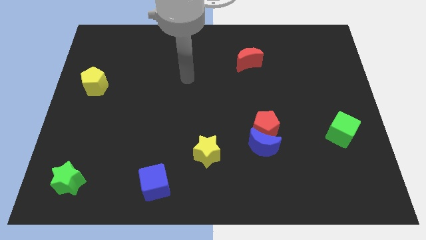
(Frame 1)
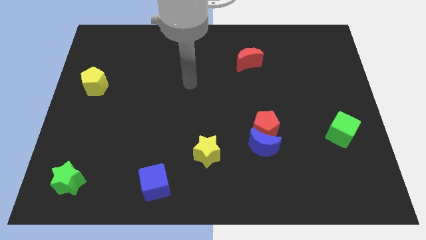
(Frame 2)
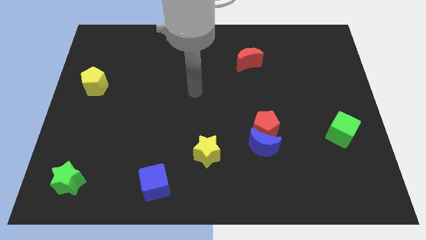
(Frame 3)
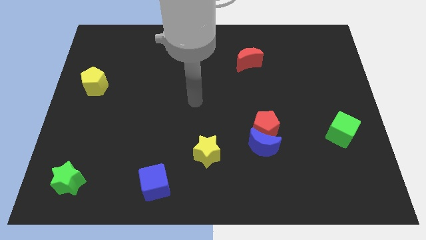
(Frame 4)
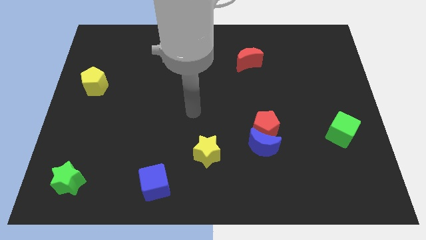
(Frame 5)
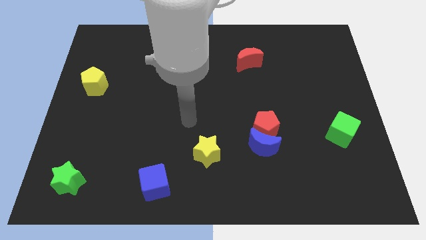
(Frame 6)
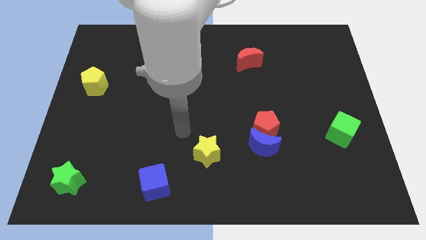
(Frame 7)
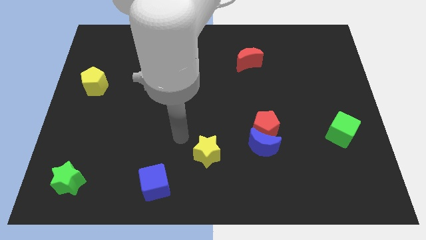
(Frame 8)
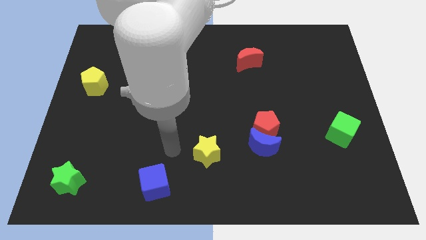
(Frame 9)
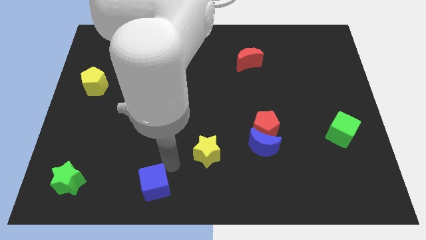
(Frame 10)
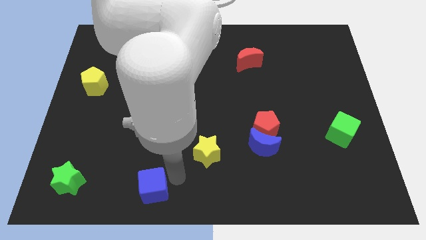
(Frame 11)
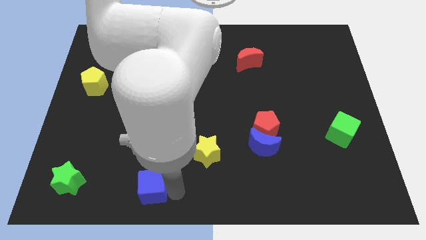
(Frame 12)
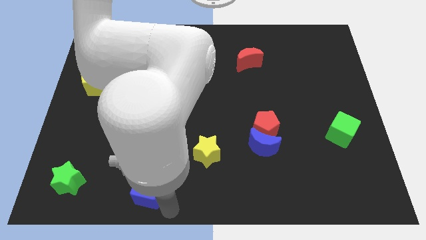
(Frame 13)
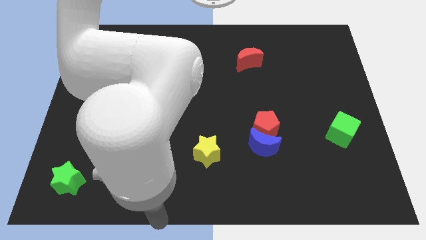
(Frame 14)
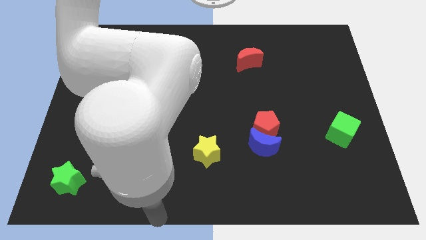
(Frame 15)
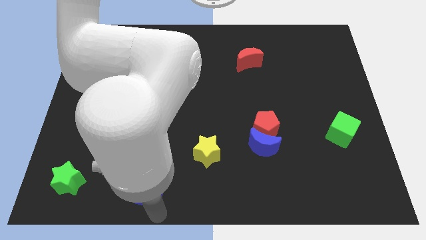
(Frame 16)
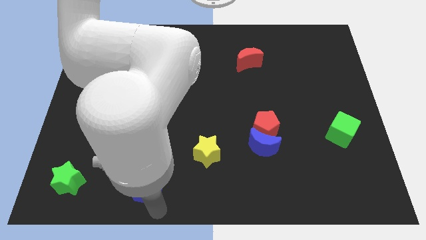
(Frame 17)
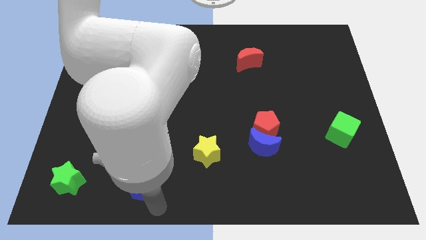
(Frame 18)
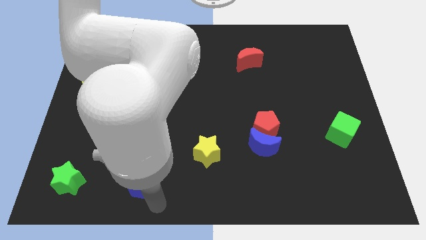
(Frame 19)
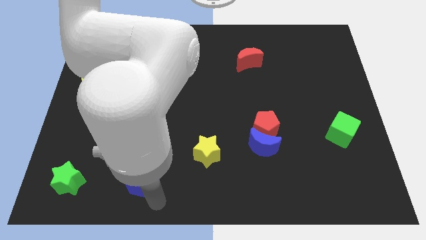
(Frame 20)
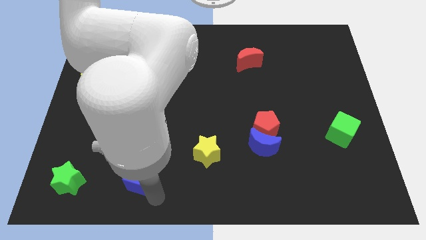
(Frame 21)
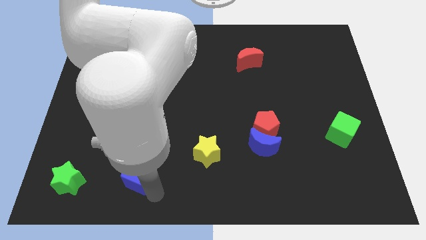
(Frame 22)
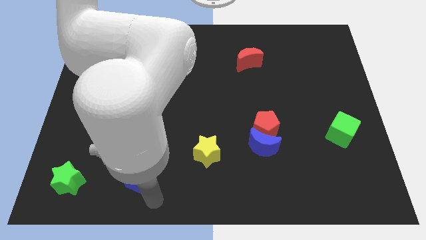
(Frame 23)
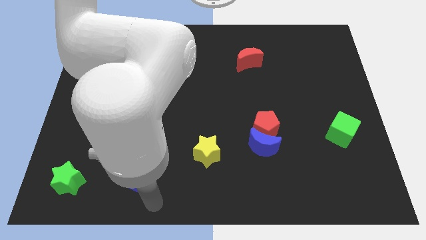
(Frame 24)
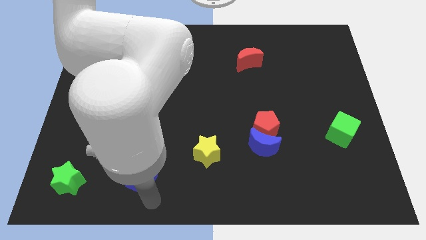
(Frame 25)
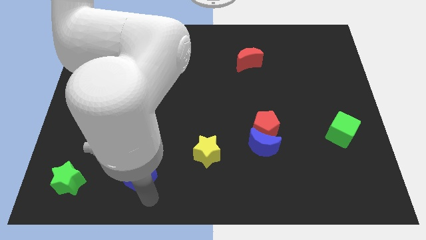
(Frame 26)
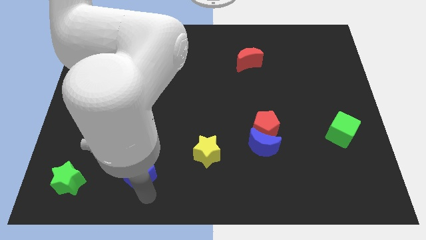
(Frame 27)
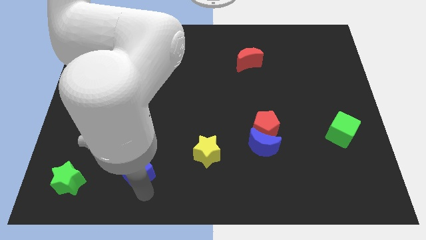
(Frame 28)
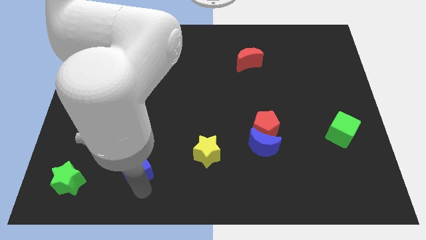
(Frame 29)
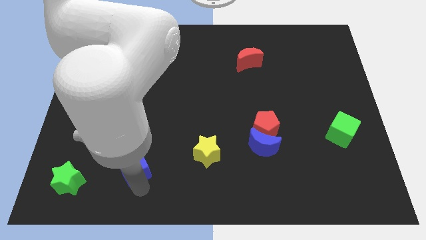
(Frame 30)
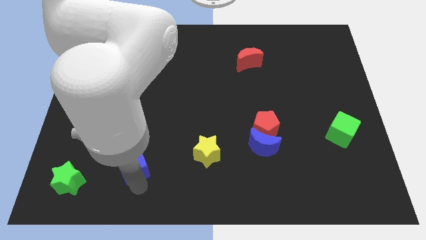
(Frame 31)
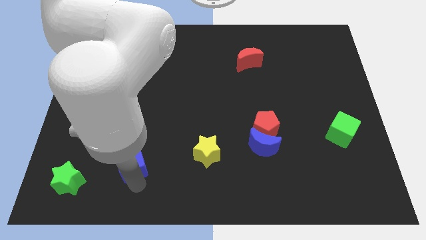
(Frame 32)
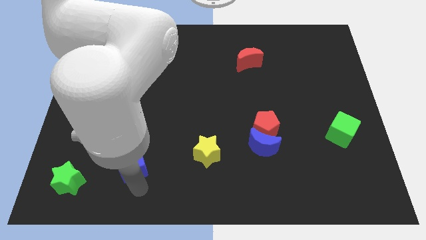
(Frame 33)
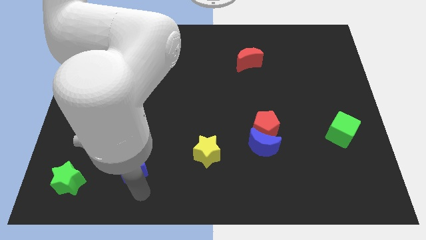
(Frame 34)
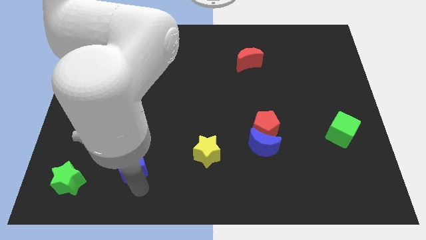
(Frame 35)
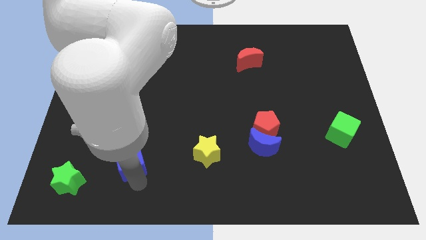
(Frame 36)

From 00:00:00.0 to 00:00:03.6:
move the blue cube diagonally upwards and left a little bit

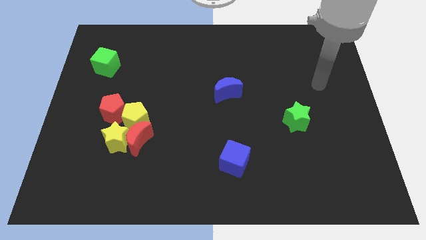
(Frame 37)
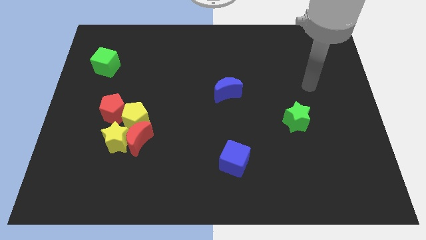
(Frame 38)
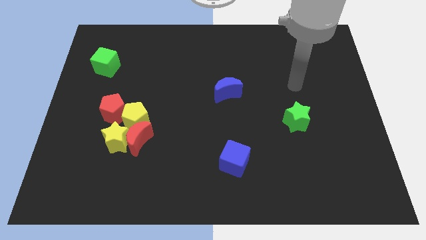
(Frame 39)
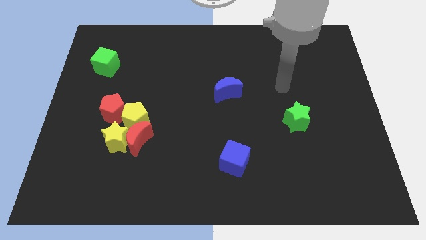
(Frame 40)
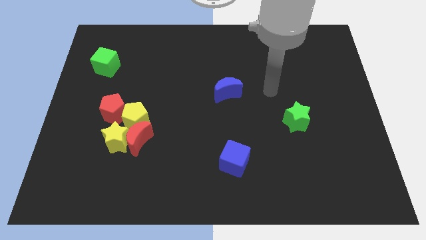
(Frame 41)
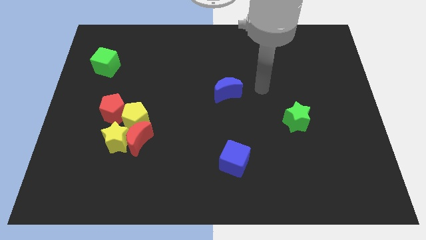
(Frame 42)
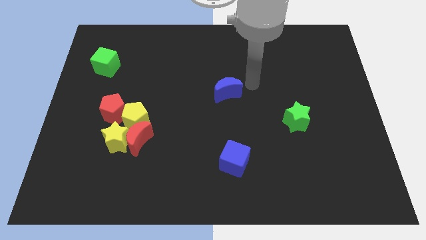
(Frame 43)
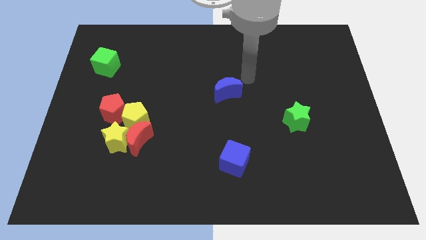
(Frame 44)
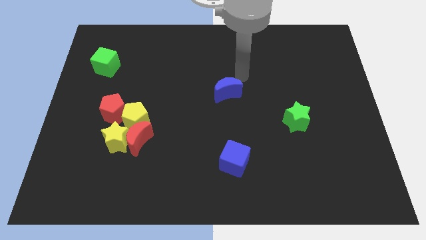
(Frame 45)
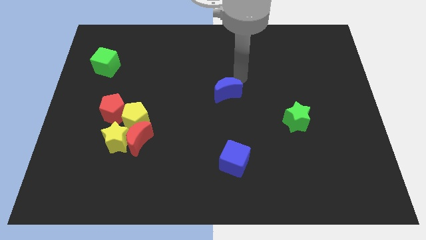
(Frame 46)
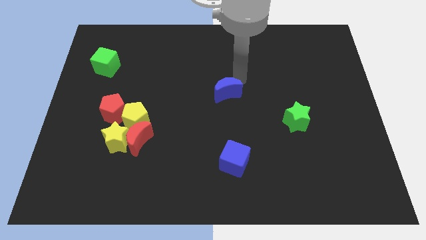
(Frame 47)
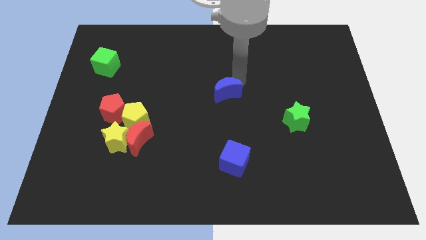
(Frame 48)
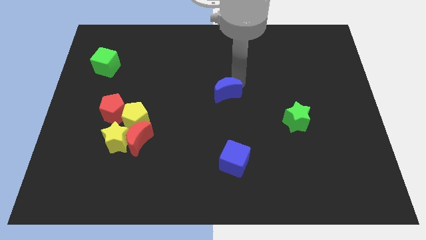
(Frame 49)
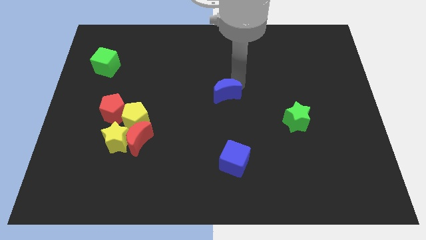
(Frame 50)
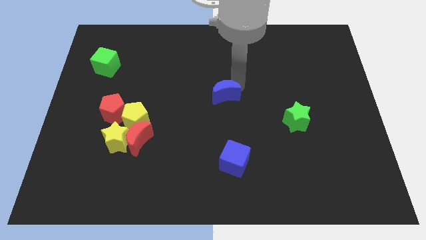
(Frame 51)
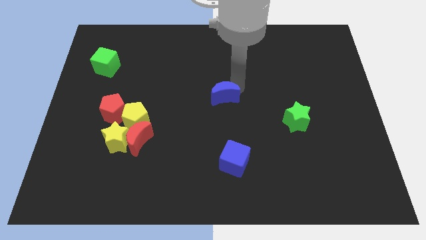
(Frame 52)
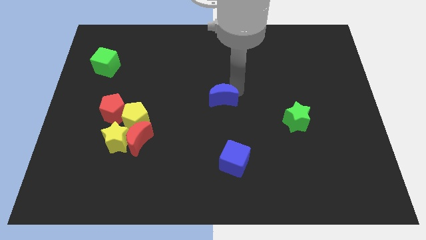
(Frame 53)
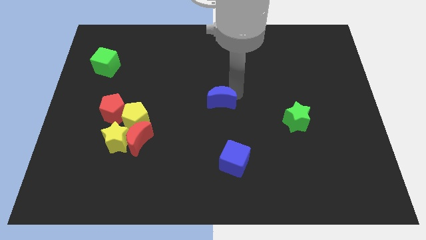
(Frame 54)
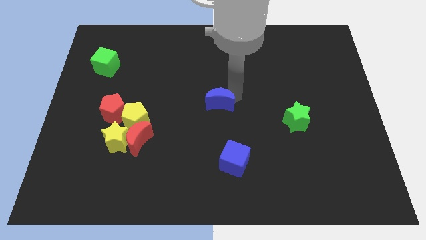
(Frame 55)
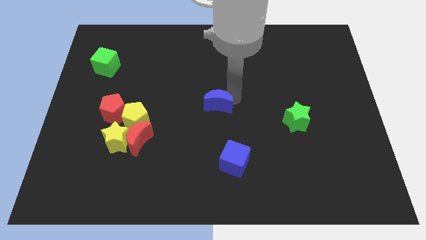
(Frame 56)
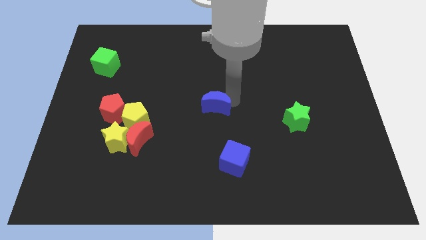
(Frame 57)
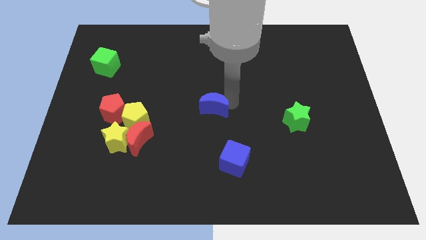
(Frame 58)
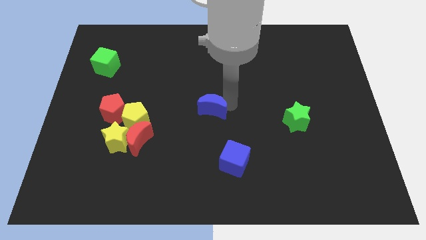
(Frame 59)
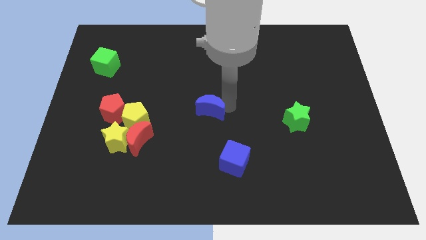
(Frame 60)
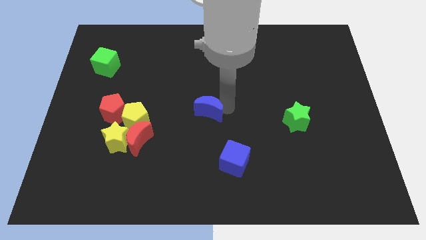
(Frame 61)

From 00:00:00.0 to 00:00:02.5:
move the blue moon slightly down and left

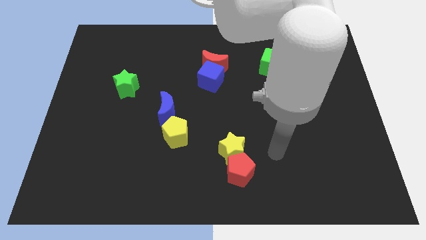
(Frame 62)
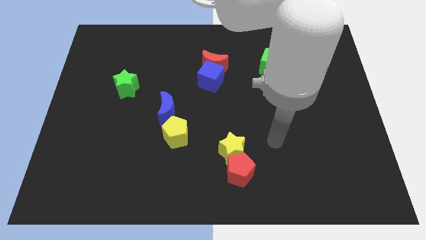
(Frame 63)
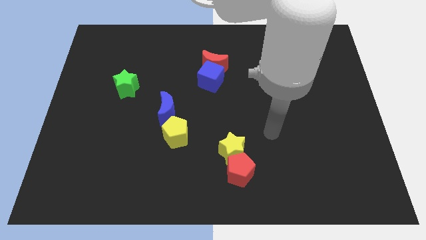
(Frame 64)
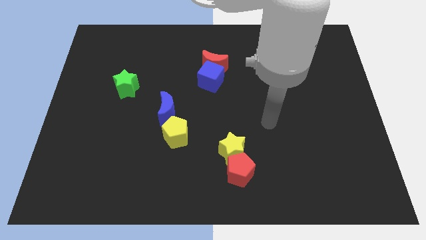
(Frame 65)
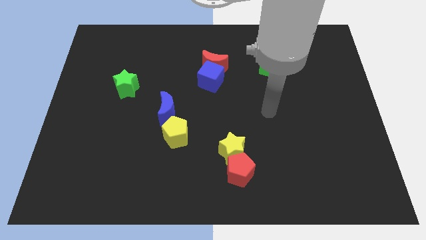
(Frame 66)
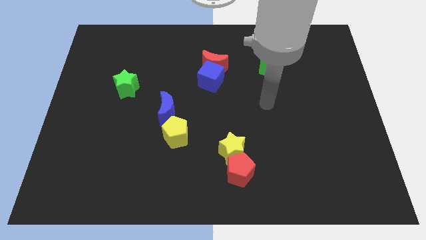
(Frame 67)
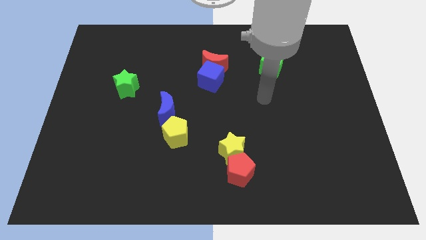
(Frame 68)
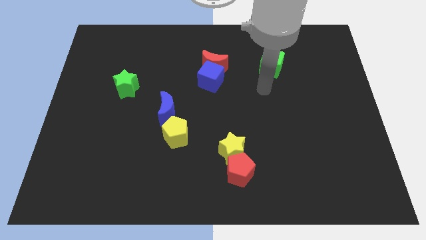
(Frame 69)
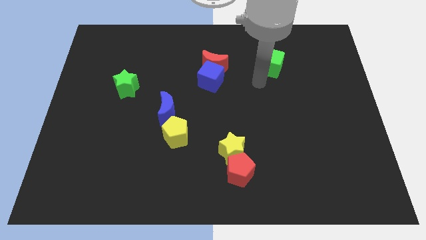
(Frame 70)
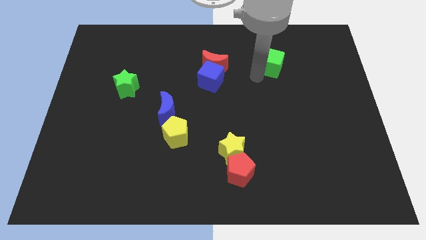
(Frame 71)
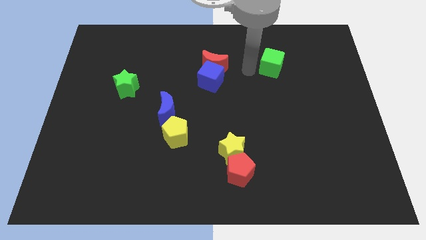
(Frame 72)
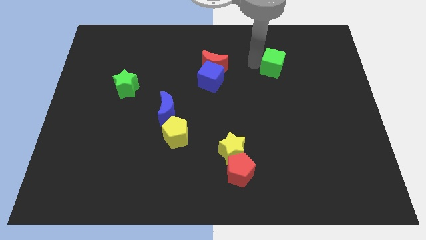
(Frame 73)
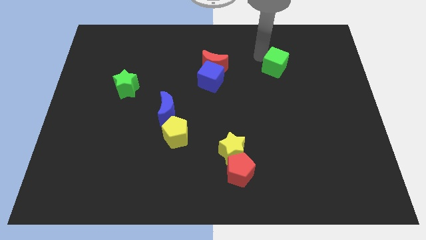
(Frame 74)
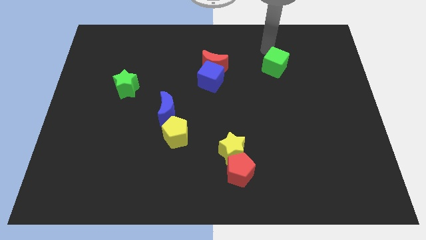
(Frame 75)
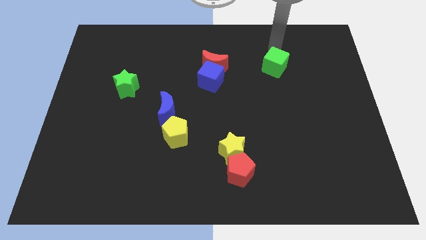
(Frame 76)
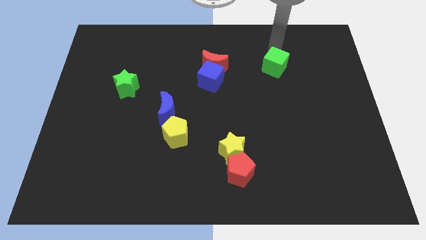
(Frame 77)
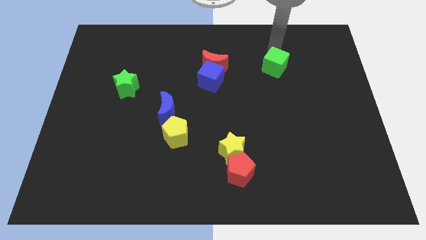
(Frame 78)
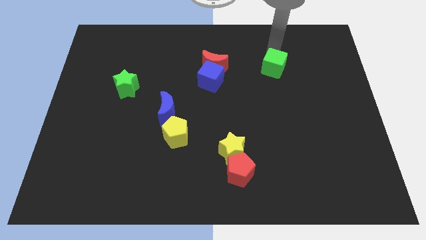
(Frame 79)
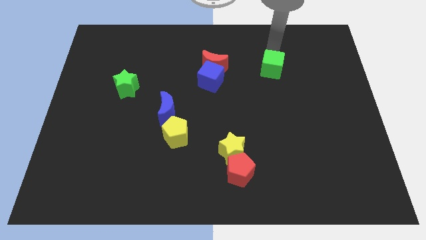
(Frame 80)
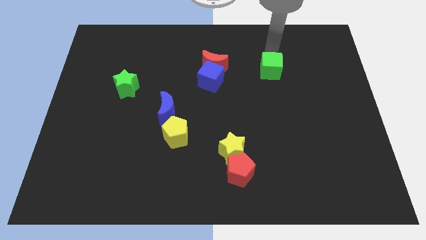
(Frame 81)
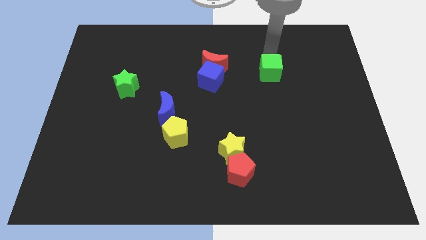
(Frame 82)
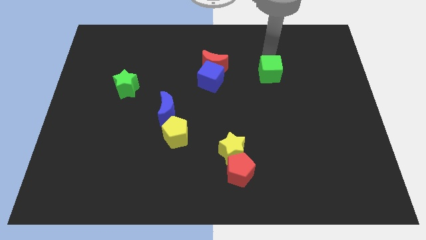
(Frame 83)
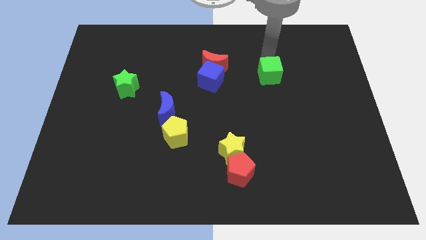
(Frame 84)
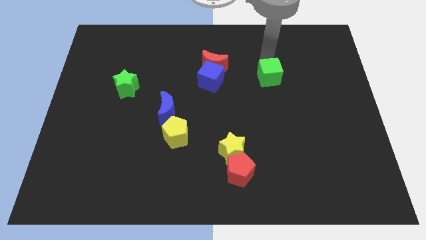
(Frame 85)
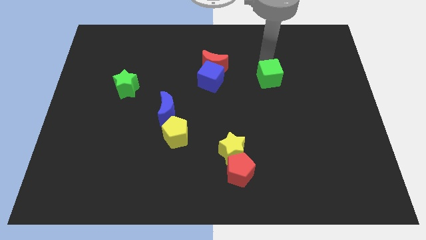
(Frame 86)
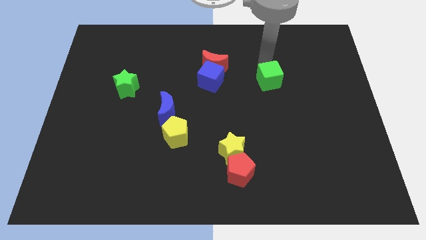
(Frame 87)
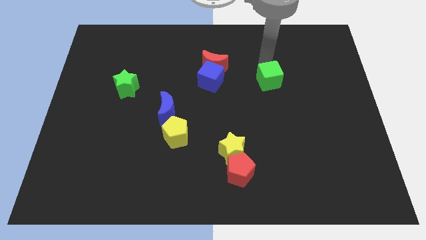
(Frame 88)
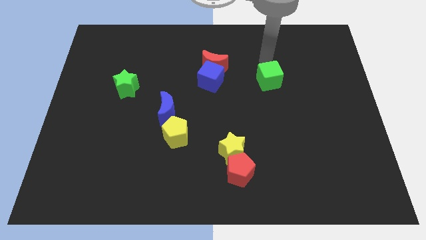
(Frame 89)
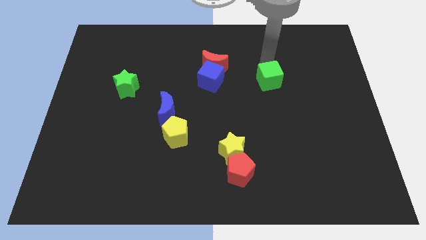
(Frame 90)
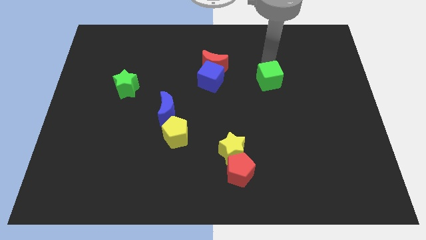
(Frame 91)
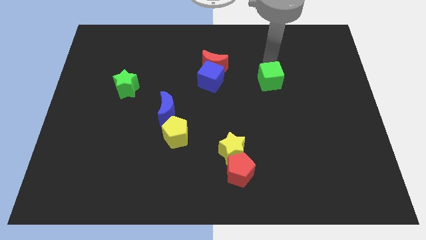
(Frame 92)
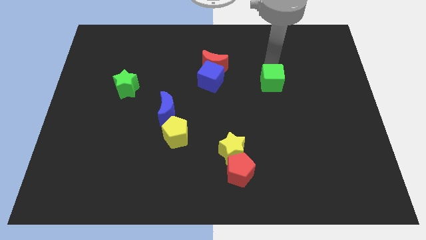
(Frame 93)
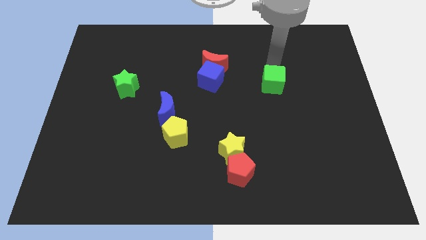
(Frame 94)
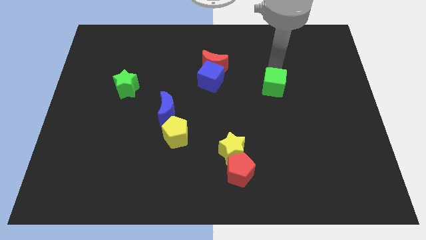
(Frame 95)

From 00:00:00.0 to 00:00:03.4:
slightly move the green cube down
